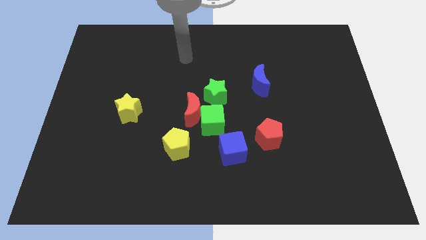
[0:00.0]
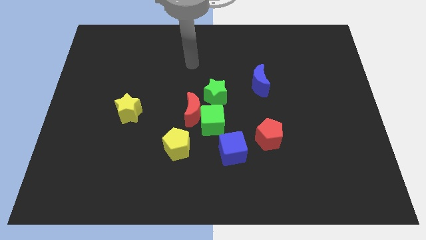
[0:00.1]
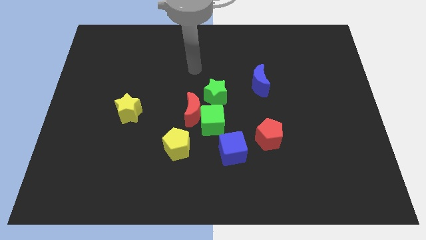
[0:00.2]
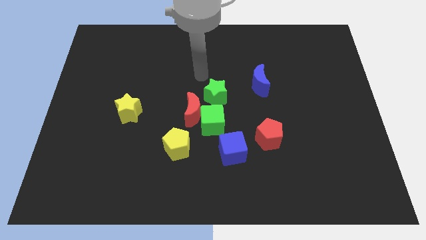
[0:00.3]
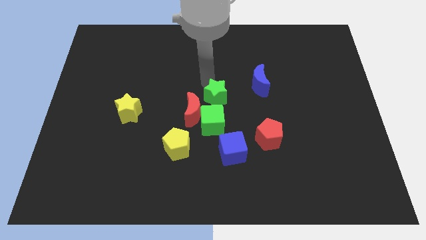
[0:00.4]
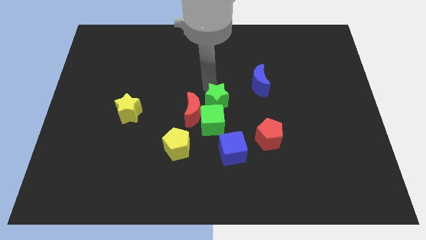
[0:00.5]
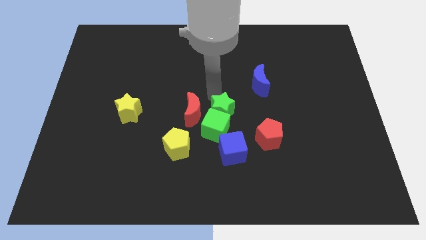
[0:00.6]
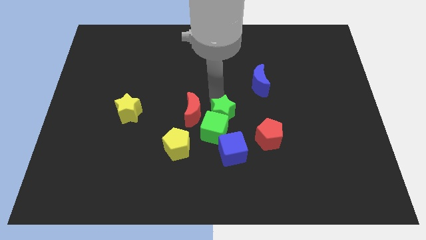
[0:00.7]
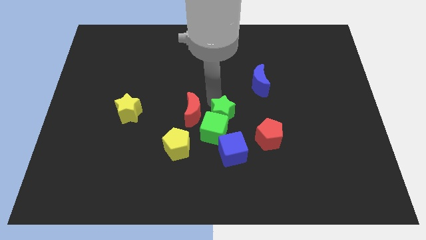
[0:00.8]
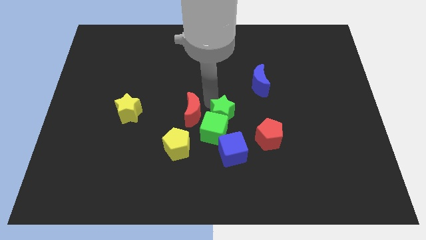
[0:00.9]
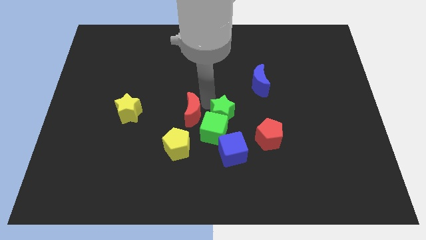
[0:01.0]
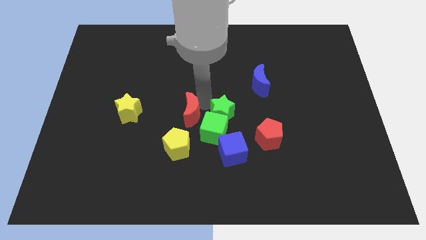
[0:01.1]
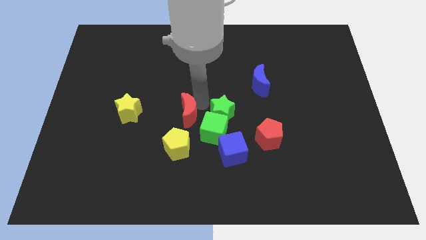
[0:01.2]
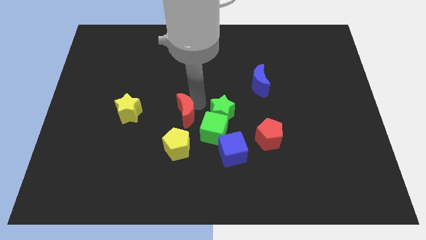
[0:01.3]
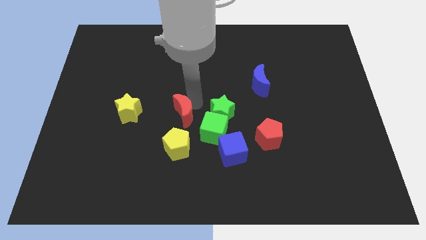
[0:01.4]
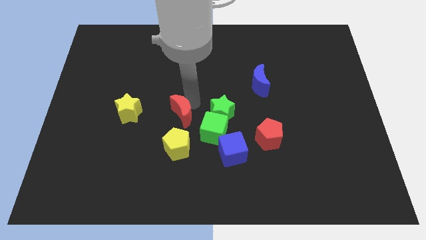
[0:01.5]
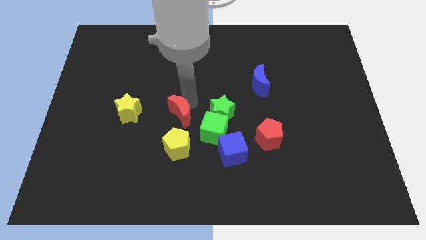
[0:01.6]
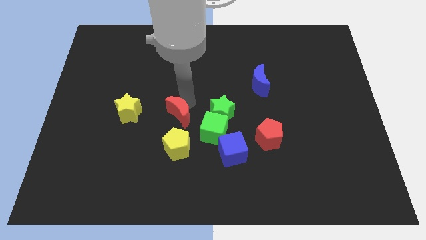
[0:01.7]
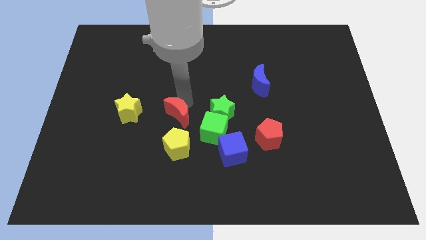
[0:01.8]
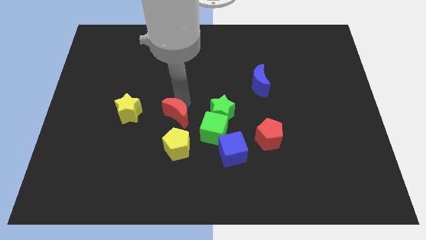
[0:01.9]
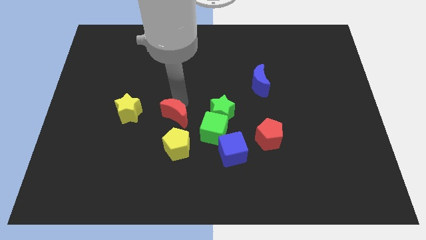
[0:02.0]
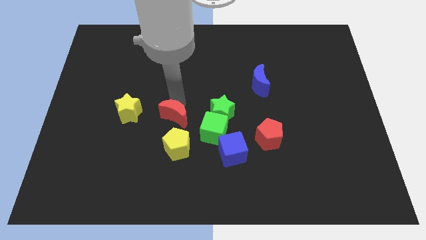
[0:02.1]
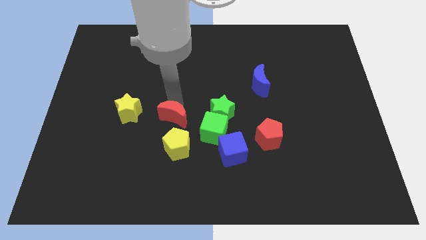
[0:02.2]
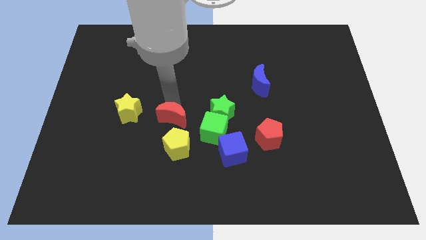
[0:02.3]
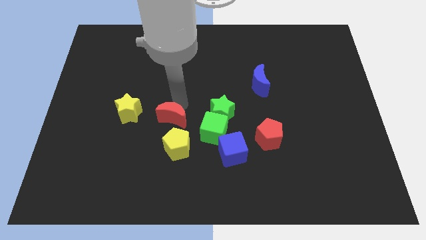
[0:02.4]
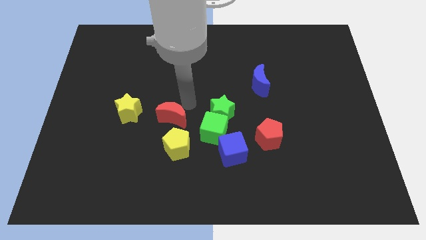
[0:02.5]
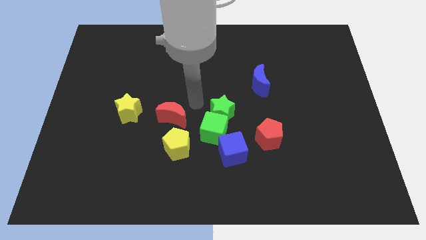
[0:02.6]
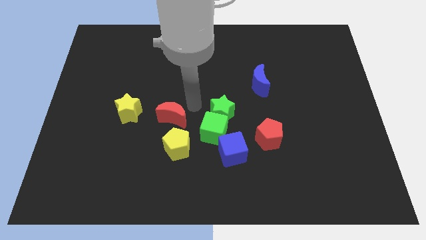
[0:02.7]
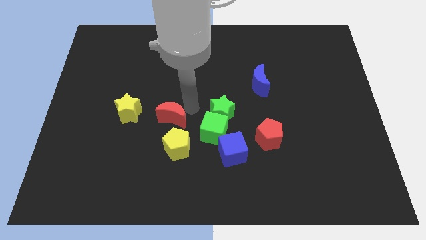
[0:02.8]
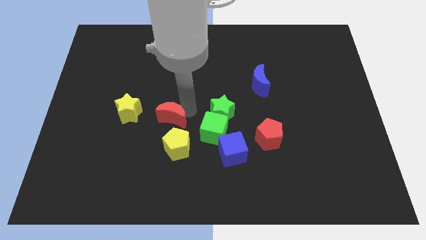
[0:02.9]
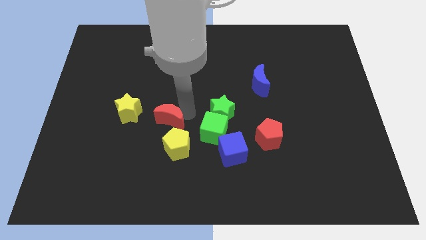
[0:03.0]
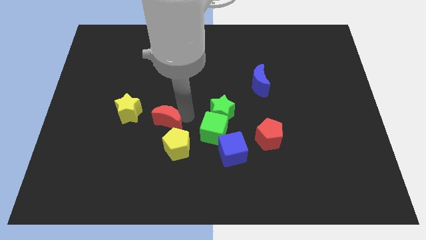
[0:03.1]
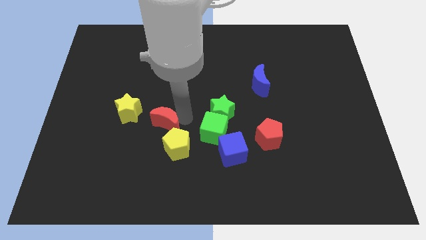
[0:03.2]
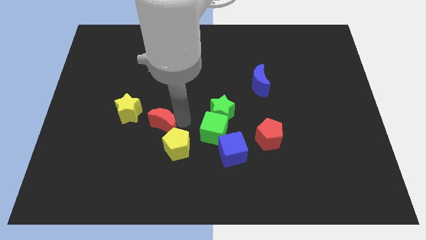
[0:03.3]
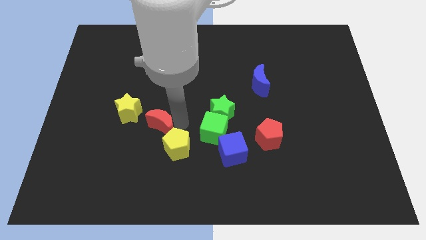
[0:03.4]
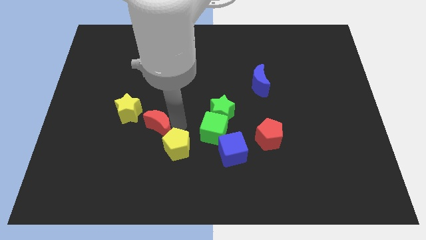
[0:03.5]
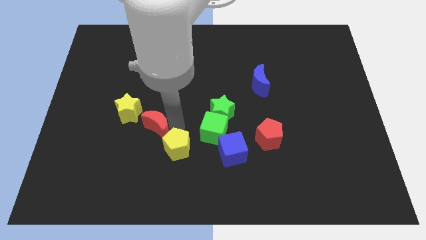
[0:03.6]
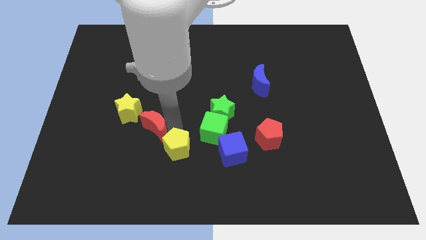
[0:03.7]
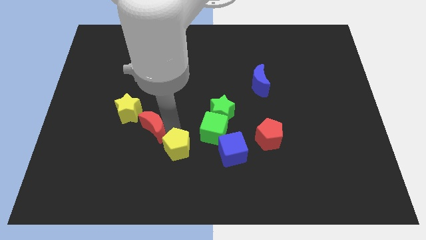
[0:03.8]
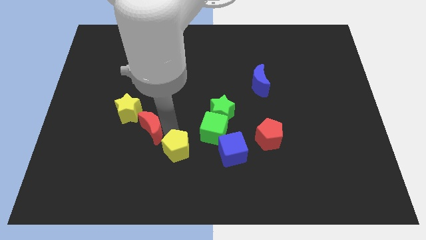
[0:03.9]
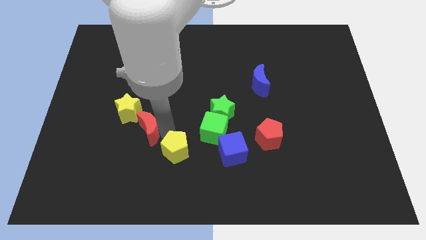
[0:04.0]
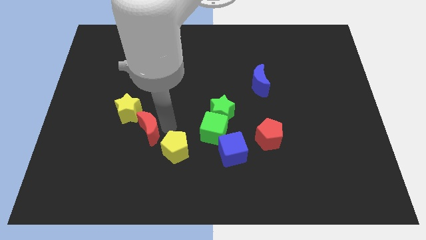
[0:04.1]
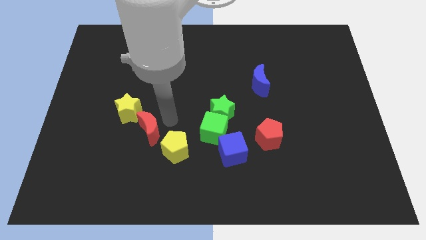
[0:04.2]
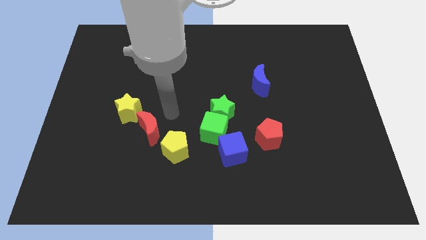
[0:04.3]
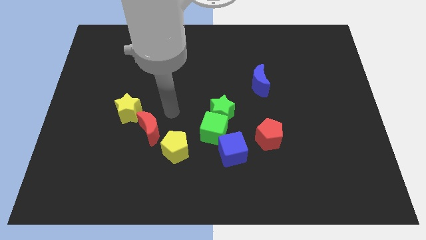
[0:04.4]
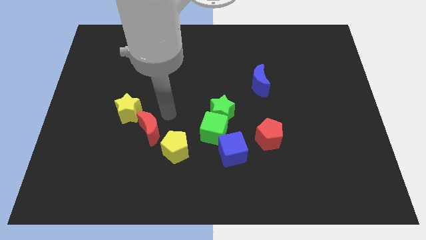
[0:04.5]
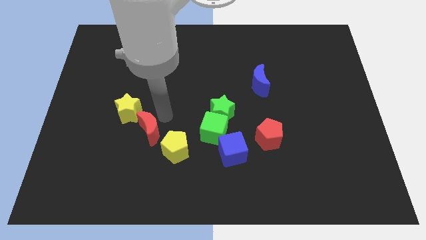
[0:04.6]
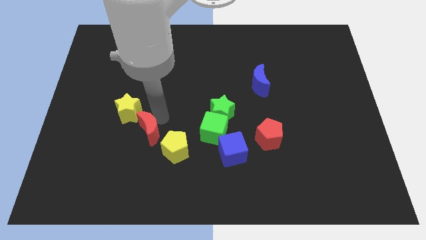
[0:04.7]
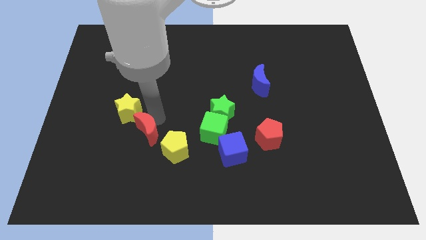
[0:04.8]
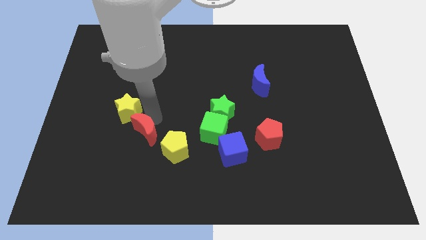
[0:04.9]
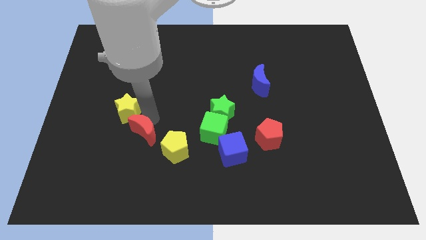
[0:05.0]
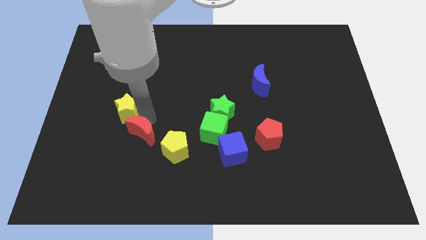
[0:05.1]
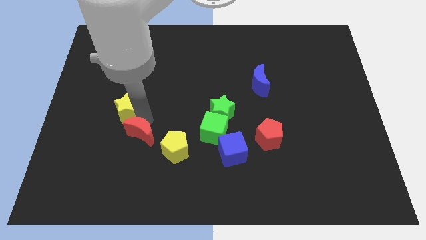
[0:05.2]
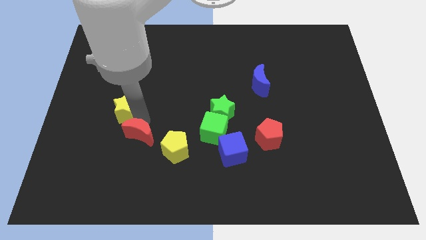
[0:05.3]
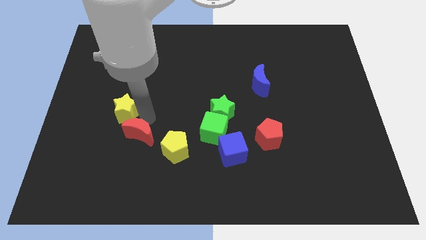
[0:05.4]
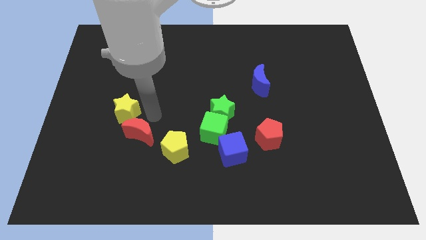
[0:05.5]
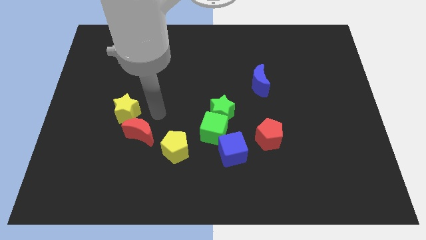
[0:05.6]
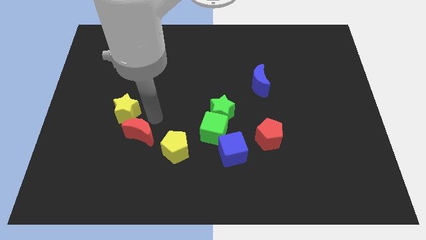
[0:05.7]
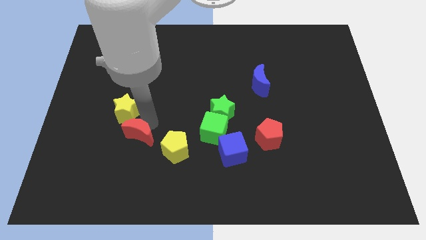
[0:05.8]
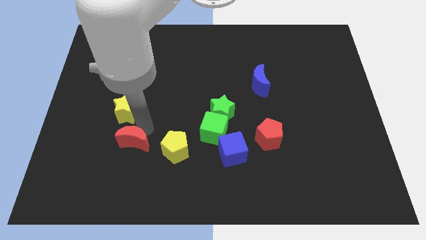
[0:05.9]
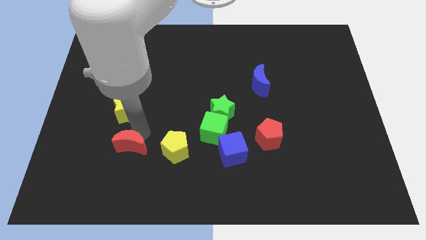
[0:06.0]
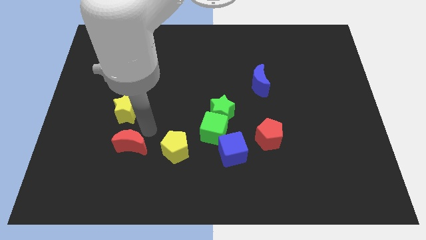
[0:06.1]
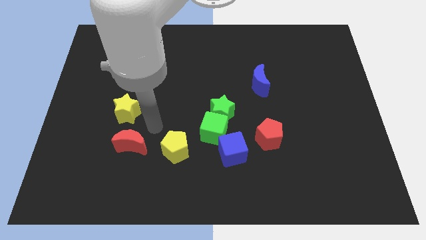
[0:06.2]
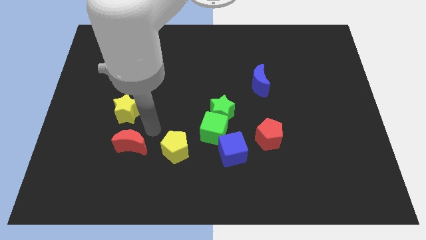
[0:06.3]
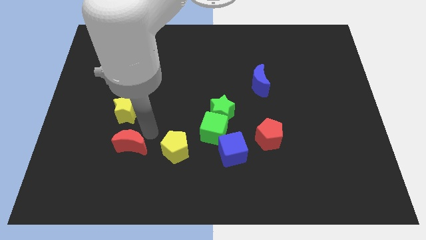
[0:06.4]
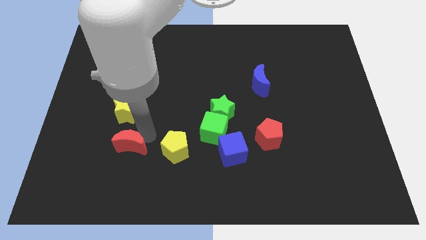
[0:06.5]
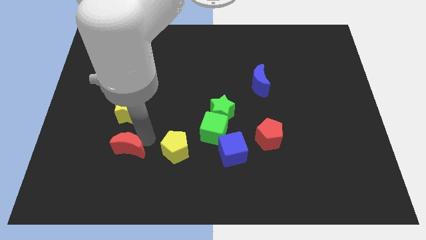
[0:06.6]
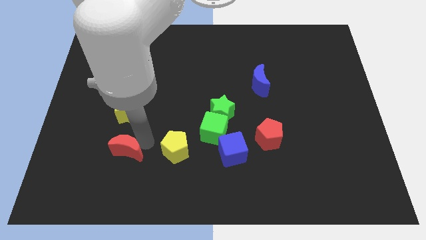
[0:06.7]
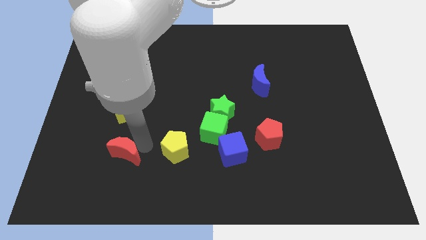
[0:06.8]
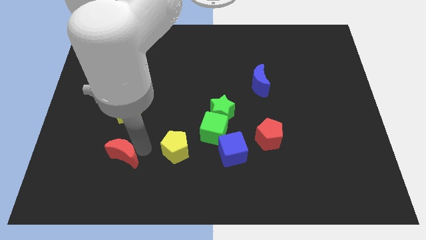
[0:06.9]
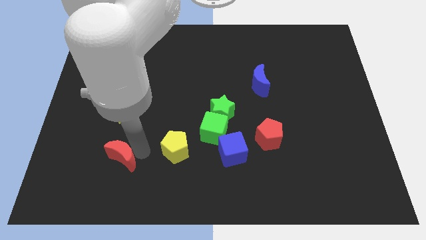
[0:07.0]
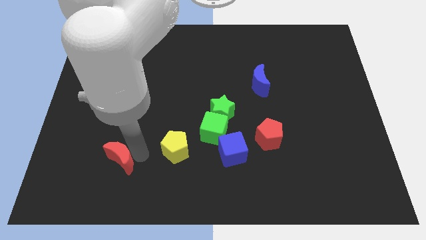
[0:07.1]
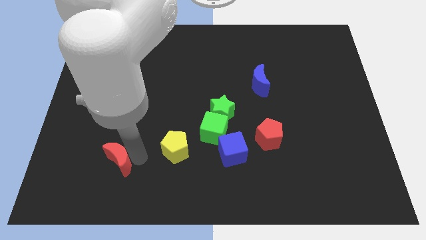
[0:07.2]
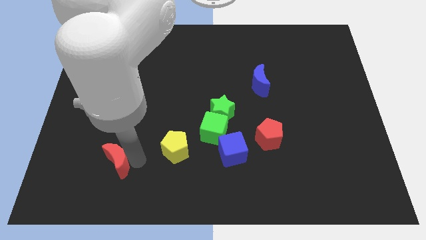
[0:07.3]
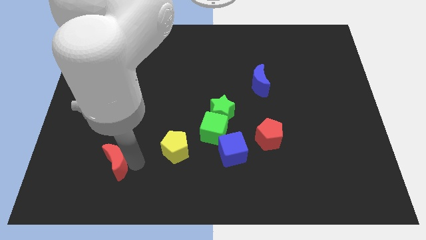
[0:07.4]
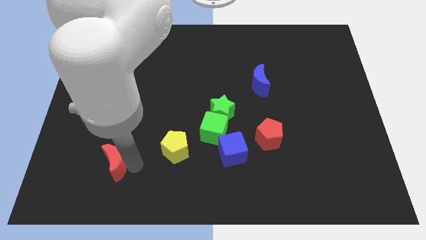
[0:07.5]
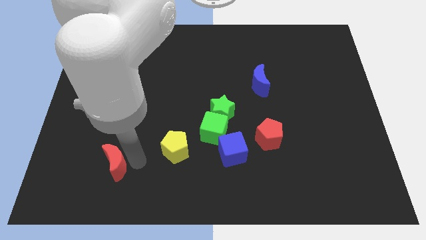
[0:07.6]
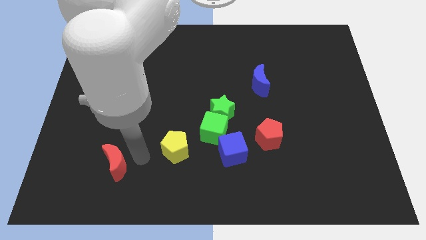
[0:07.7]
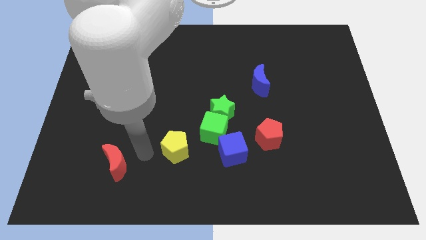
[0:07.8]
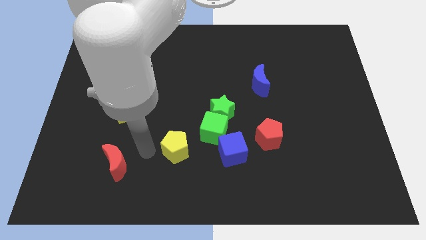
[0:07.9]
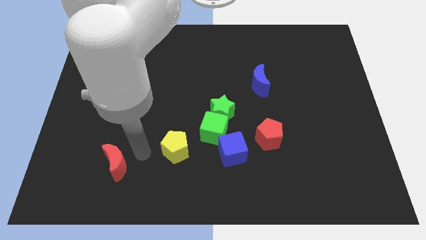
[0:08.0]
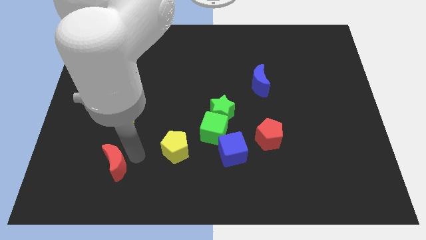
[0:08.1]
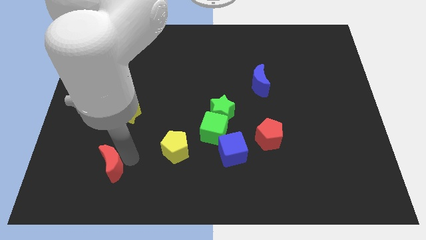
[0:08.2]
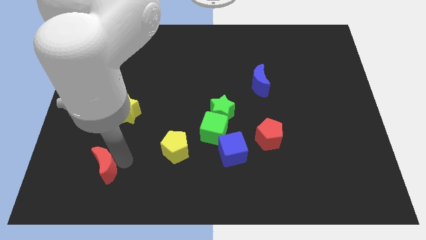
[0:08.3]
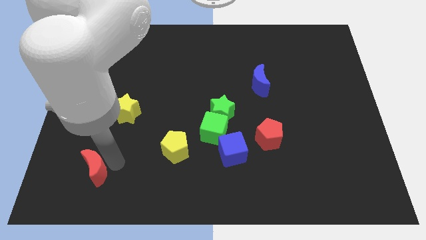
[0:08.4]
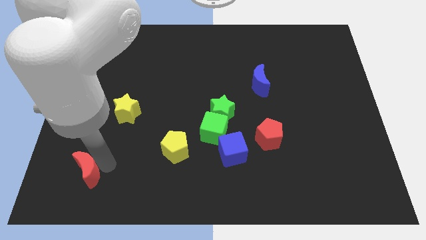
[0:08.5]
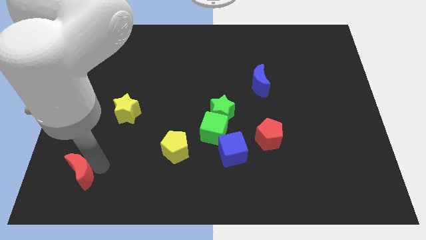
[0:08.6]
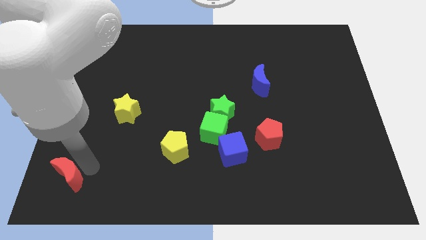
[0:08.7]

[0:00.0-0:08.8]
move the red moon to the bottom left of the board
